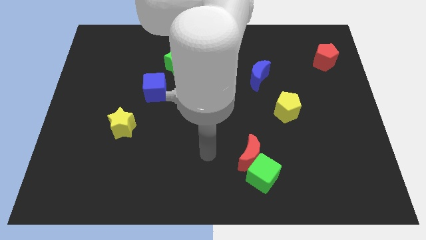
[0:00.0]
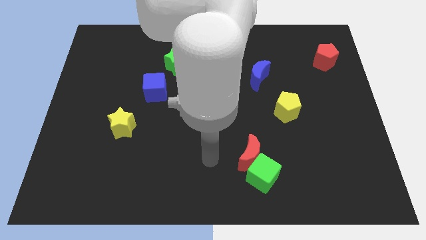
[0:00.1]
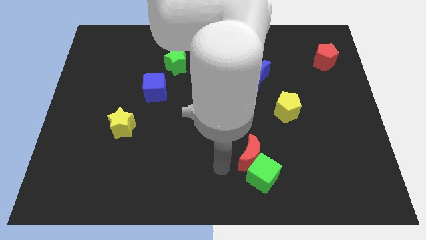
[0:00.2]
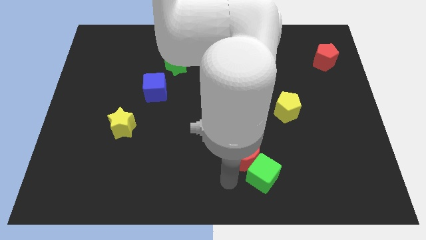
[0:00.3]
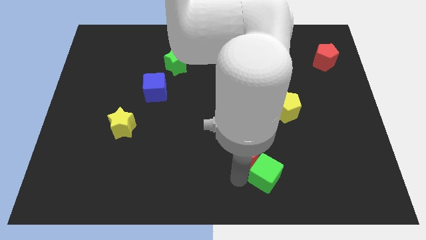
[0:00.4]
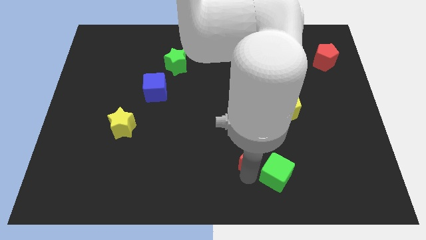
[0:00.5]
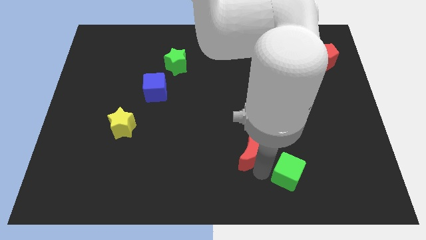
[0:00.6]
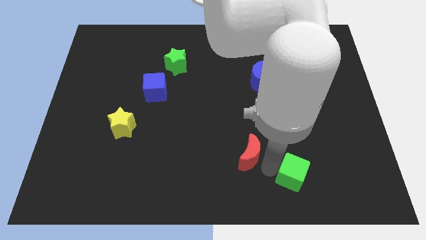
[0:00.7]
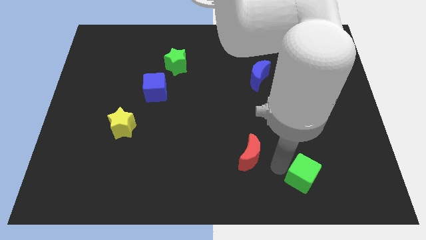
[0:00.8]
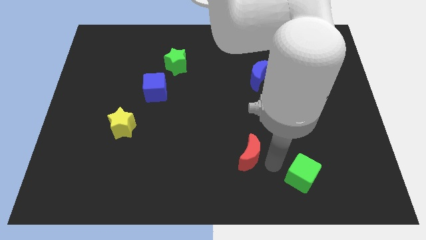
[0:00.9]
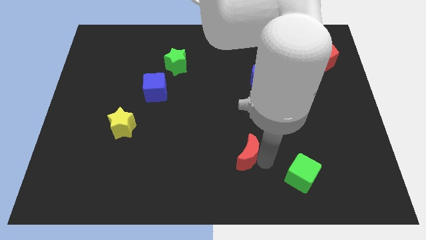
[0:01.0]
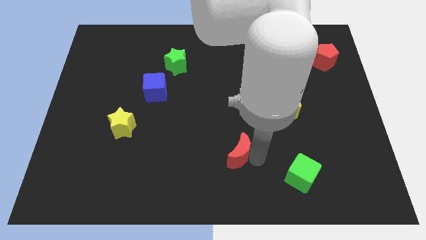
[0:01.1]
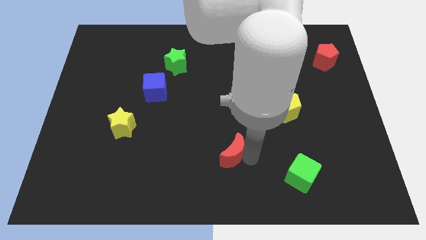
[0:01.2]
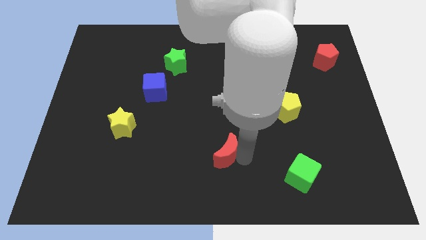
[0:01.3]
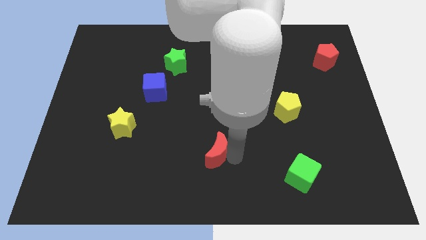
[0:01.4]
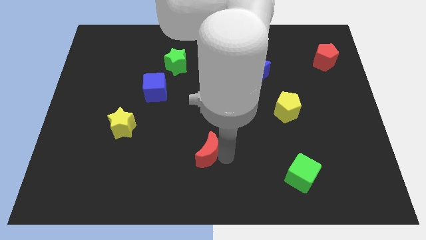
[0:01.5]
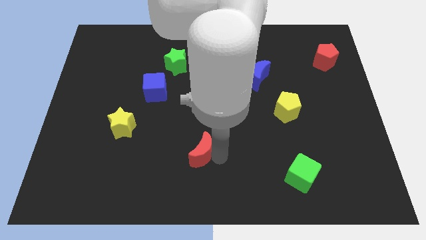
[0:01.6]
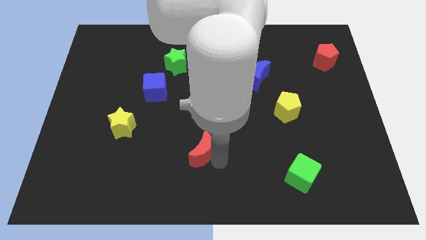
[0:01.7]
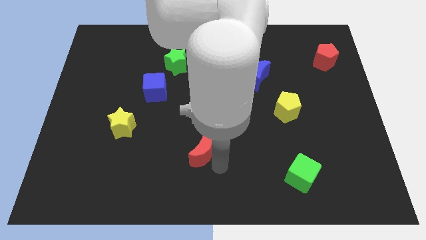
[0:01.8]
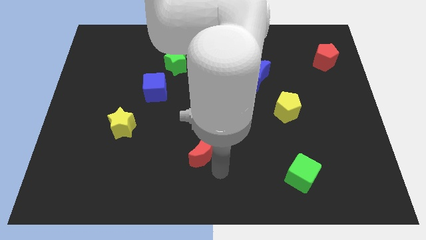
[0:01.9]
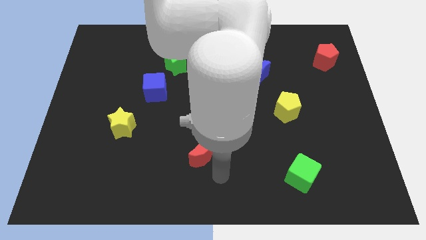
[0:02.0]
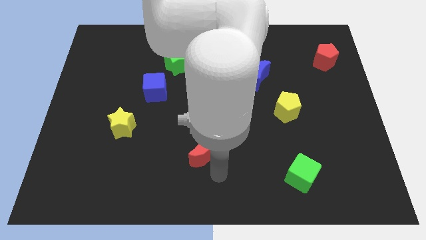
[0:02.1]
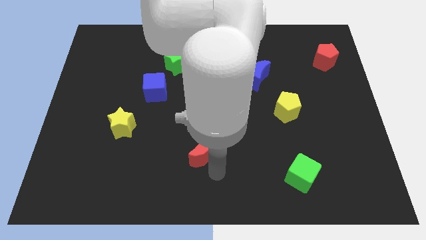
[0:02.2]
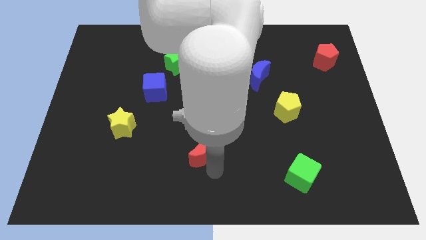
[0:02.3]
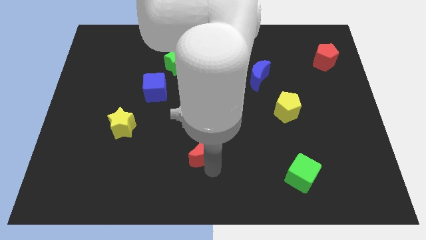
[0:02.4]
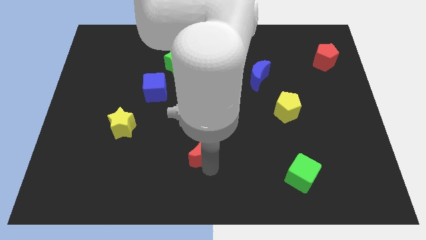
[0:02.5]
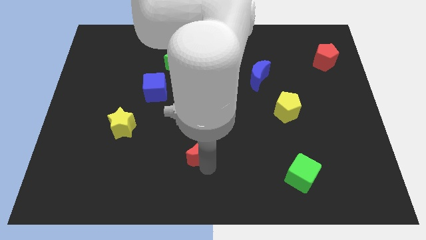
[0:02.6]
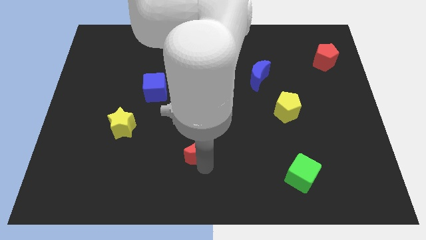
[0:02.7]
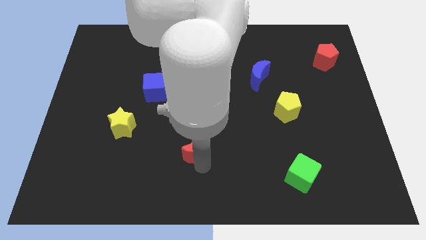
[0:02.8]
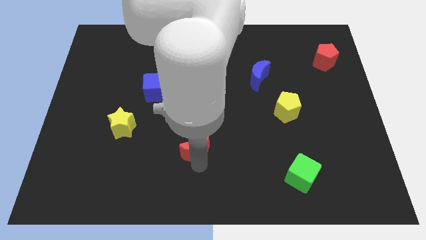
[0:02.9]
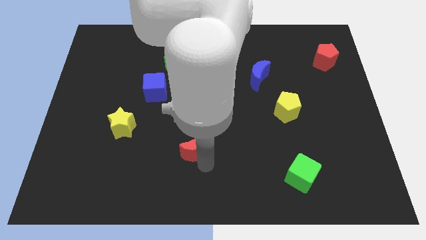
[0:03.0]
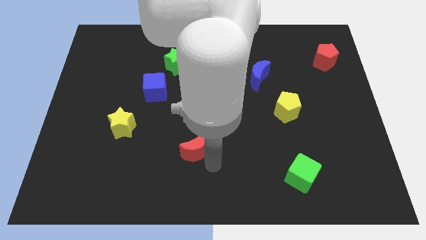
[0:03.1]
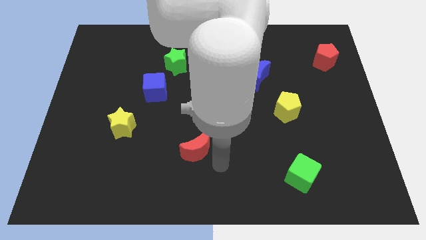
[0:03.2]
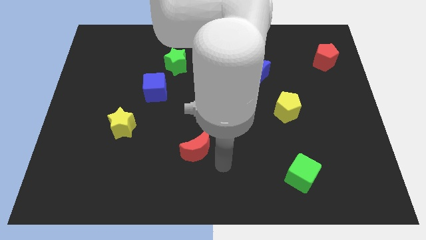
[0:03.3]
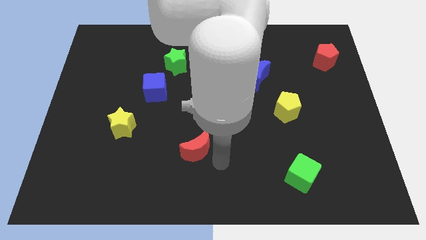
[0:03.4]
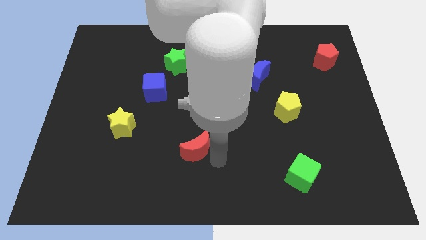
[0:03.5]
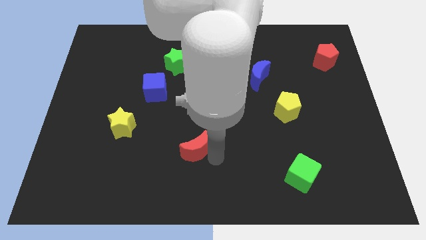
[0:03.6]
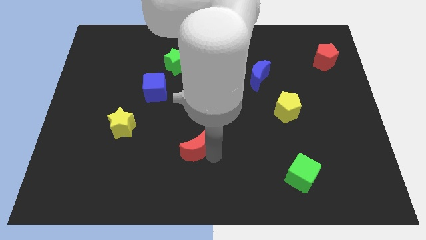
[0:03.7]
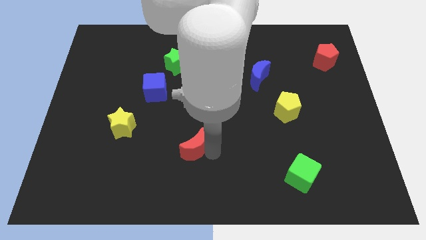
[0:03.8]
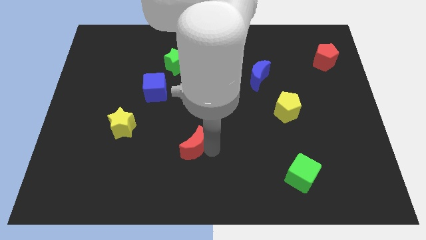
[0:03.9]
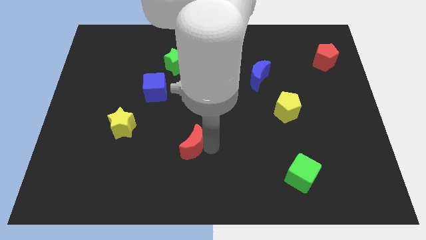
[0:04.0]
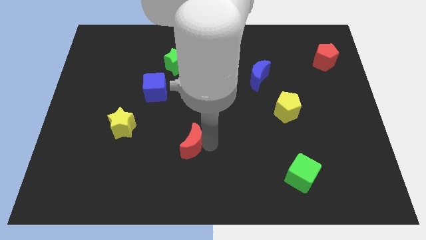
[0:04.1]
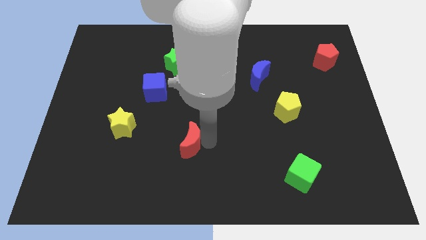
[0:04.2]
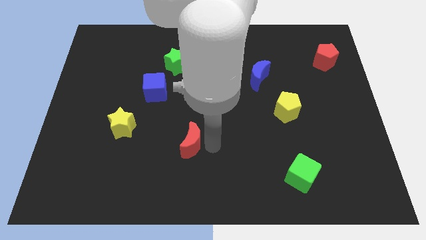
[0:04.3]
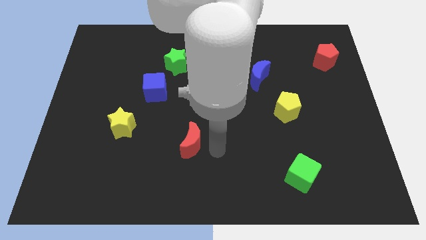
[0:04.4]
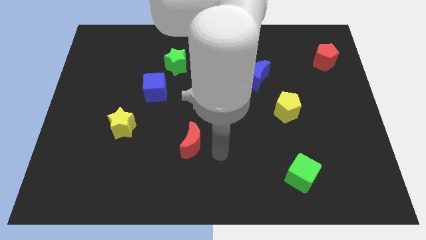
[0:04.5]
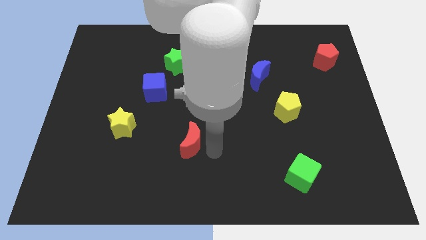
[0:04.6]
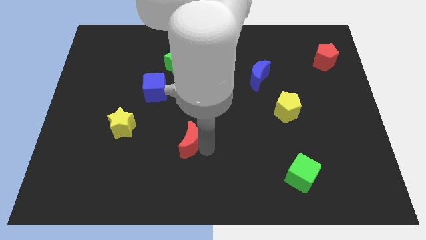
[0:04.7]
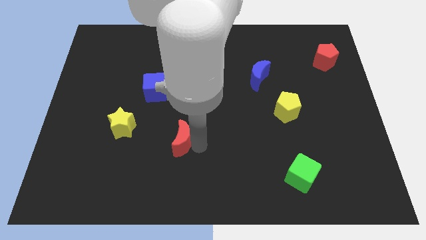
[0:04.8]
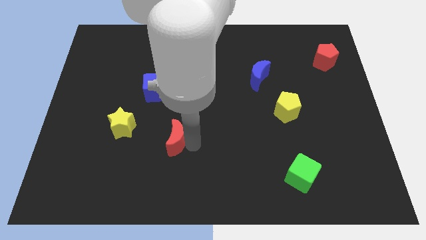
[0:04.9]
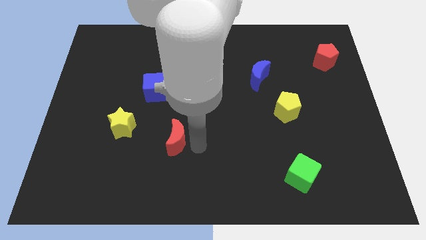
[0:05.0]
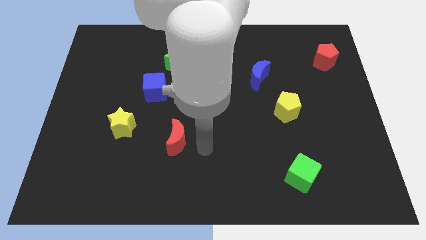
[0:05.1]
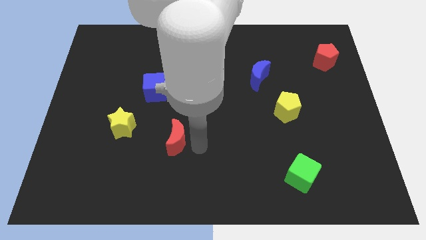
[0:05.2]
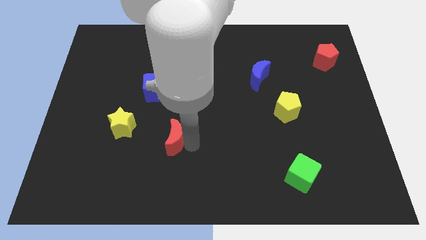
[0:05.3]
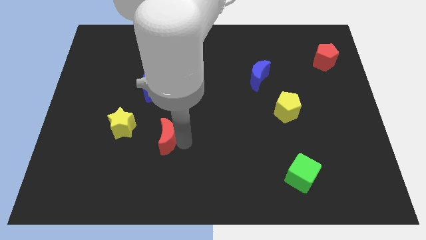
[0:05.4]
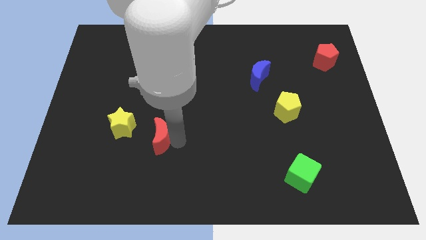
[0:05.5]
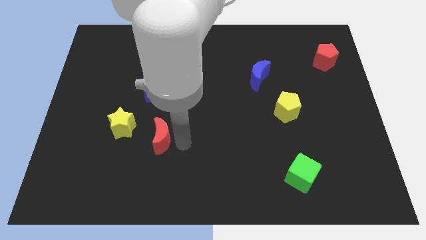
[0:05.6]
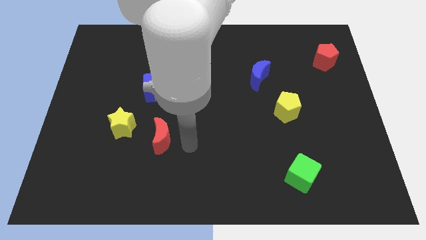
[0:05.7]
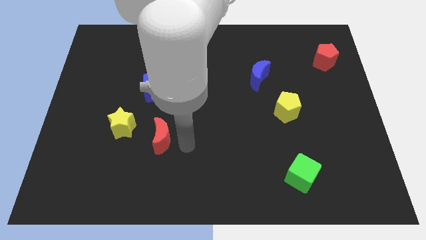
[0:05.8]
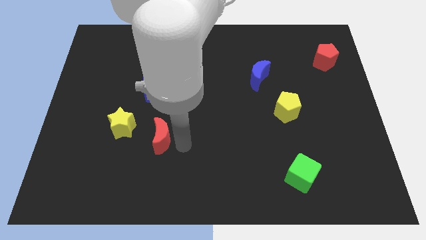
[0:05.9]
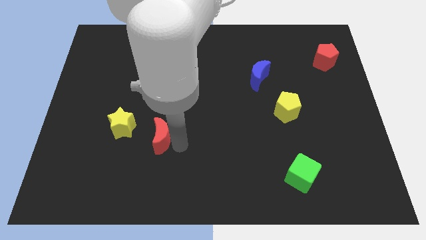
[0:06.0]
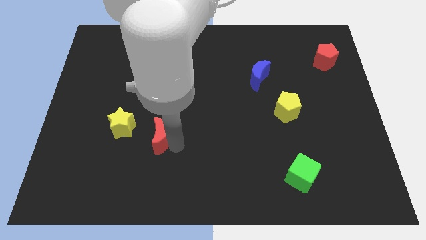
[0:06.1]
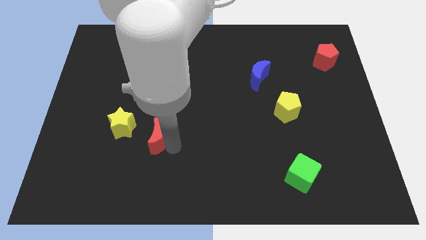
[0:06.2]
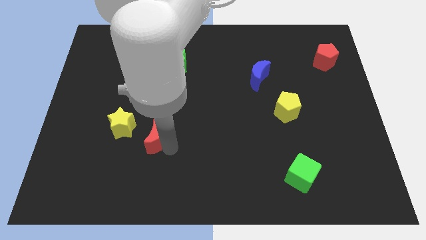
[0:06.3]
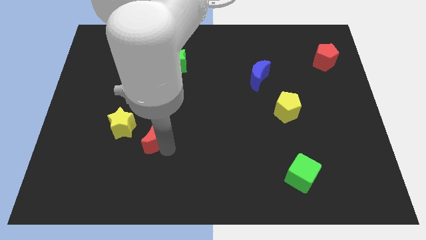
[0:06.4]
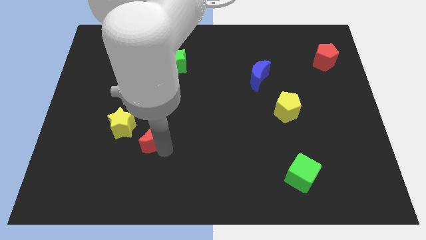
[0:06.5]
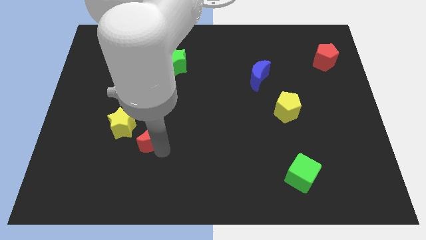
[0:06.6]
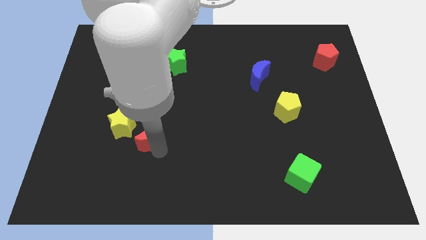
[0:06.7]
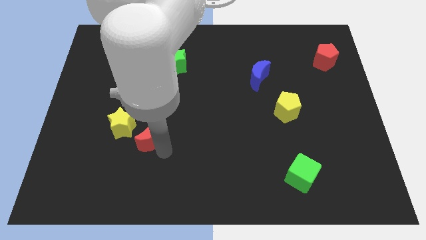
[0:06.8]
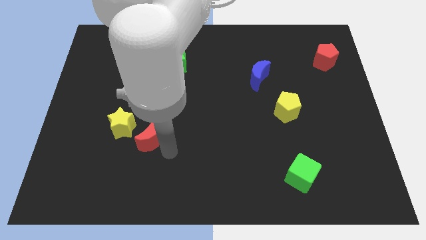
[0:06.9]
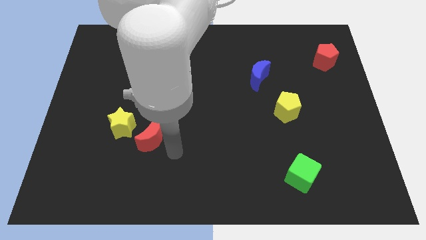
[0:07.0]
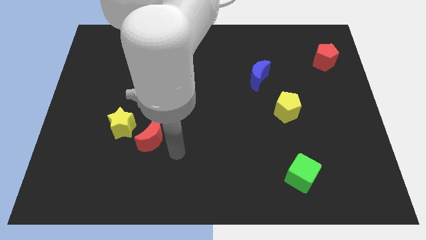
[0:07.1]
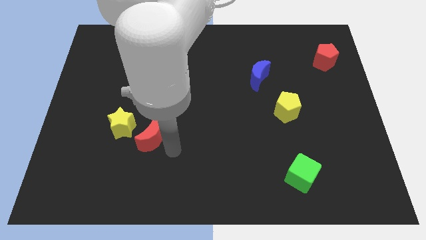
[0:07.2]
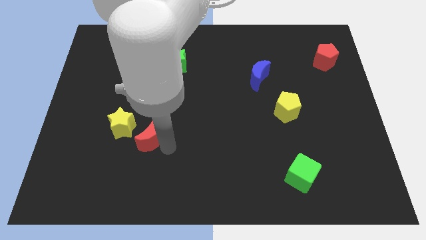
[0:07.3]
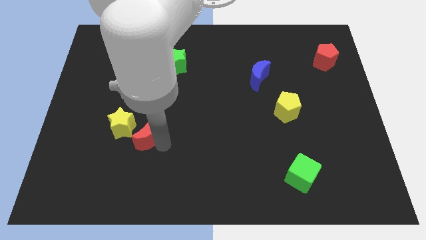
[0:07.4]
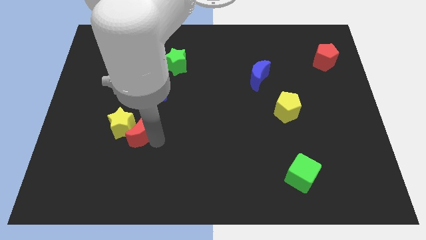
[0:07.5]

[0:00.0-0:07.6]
push the red moon towards the yellow star

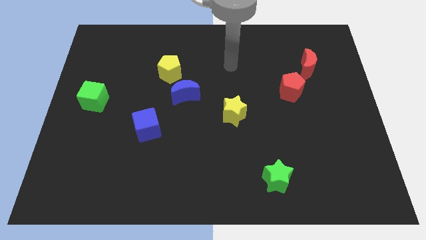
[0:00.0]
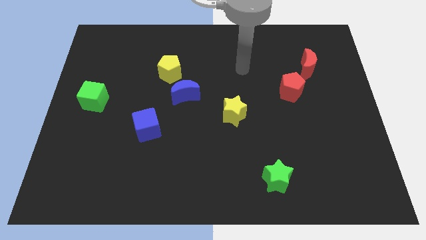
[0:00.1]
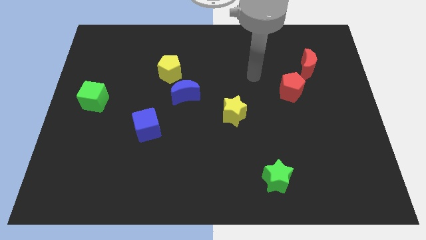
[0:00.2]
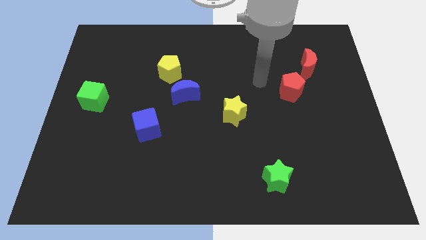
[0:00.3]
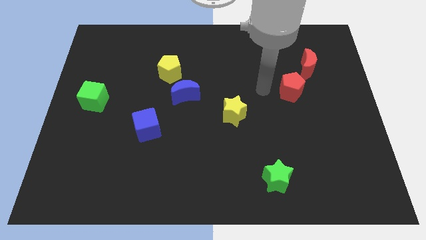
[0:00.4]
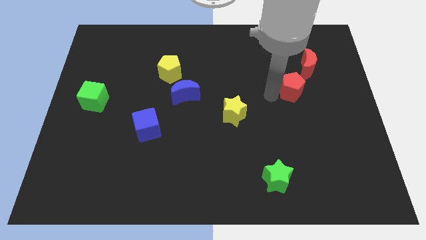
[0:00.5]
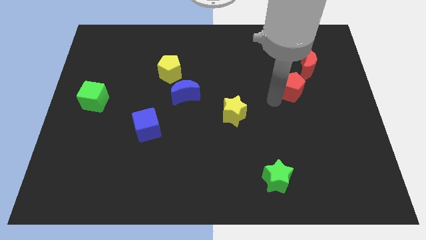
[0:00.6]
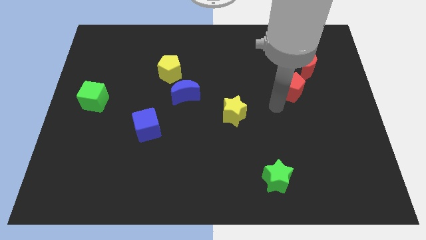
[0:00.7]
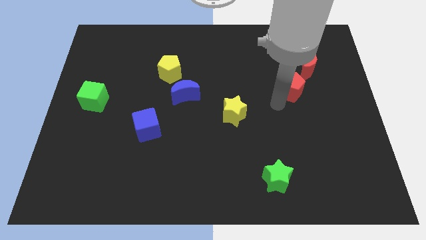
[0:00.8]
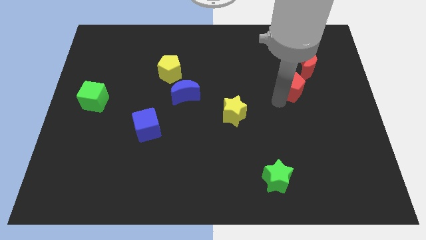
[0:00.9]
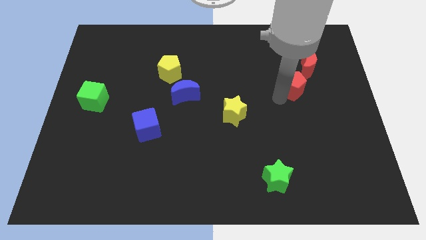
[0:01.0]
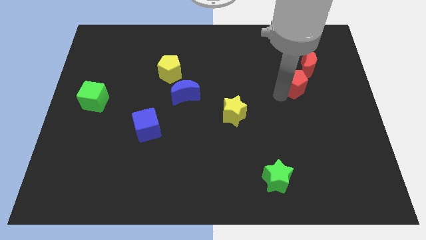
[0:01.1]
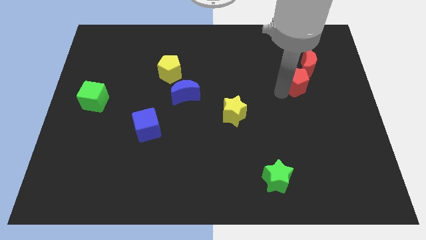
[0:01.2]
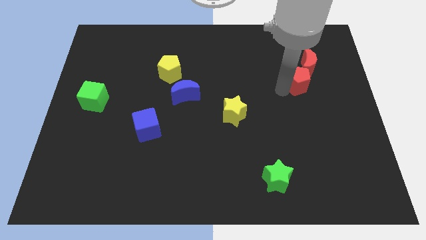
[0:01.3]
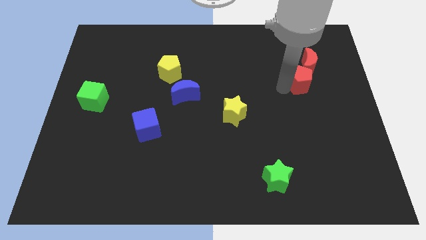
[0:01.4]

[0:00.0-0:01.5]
move the red pentagon next to the red moon
